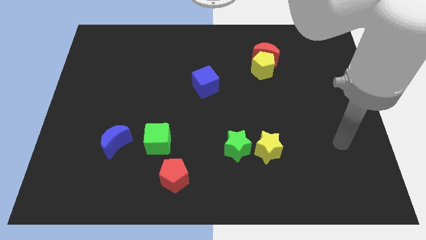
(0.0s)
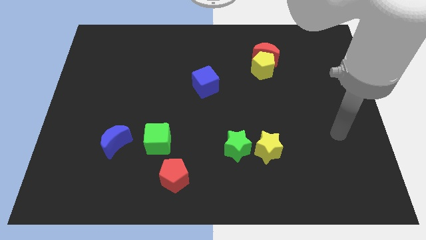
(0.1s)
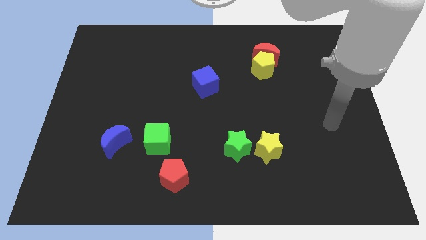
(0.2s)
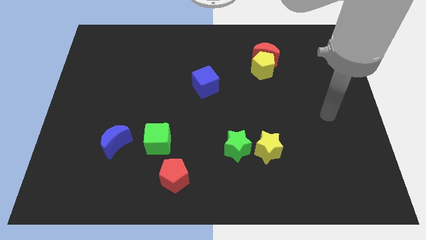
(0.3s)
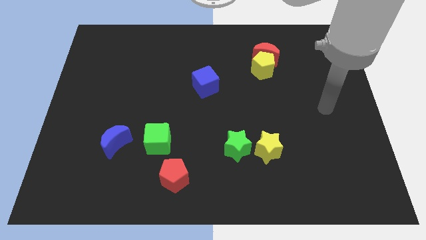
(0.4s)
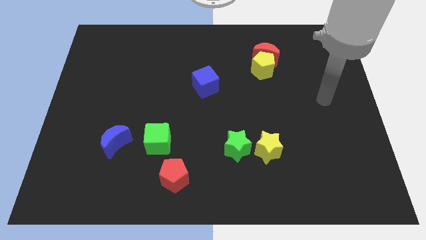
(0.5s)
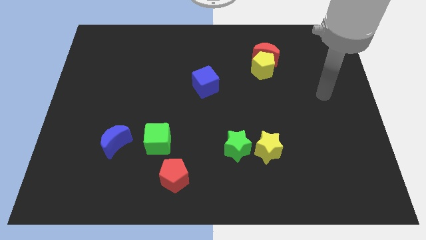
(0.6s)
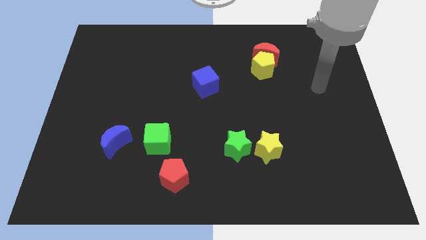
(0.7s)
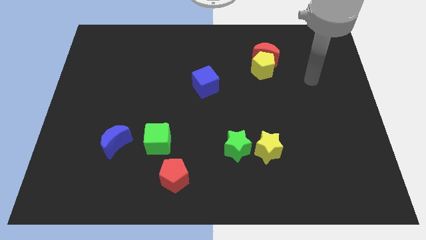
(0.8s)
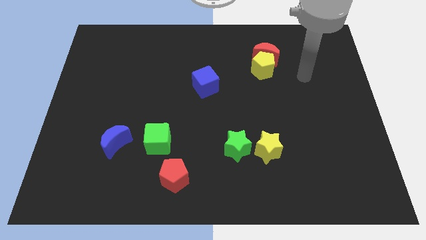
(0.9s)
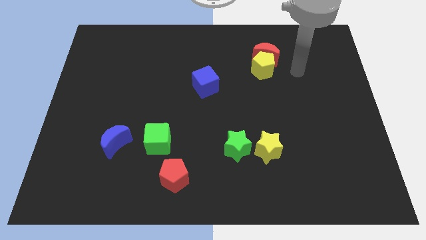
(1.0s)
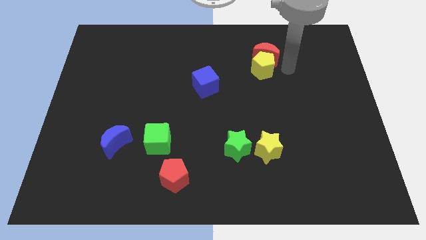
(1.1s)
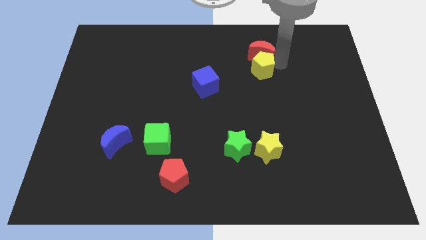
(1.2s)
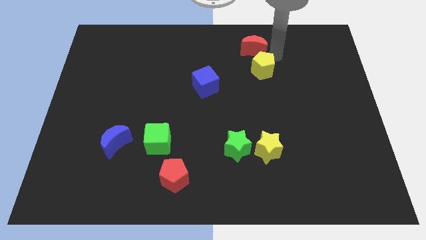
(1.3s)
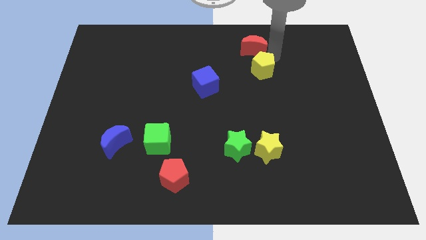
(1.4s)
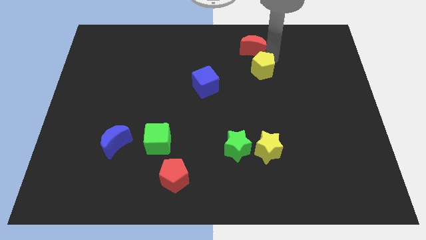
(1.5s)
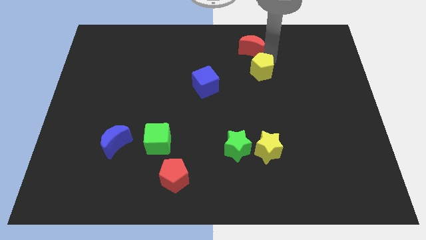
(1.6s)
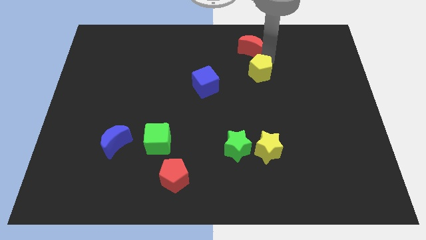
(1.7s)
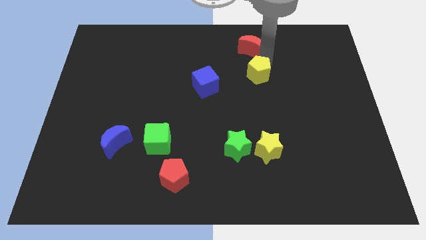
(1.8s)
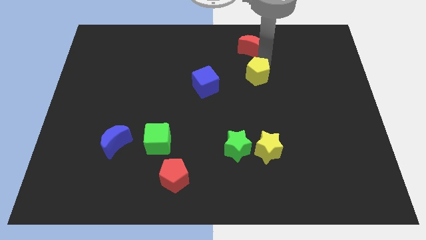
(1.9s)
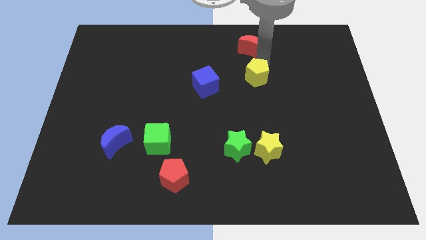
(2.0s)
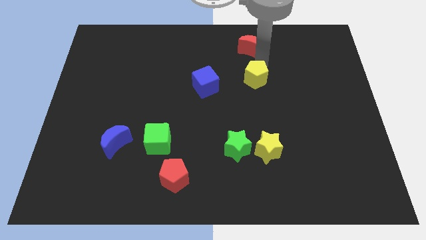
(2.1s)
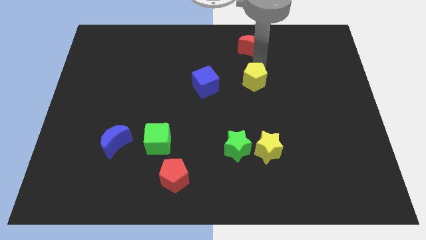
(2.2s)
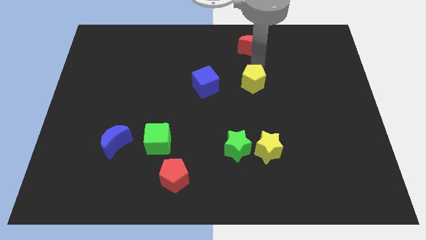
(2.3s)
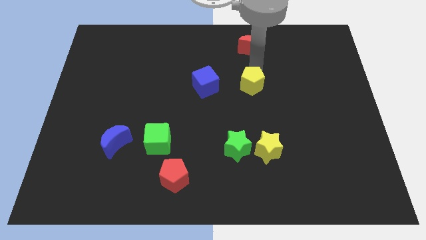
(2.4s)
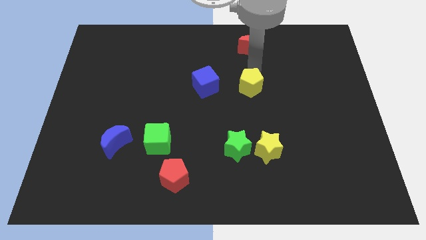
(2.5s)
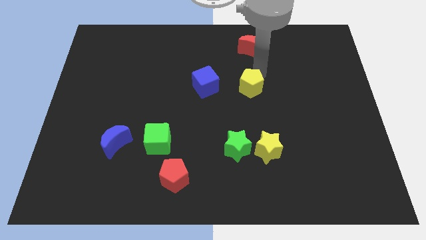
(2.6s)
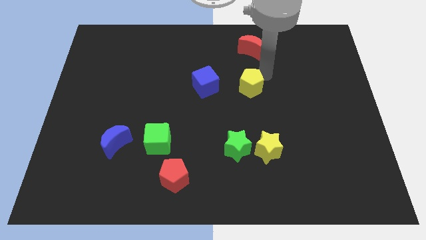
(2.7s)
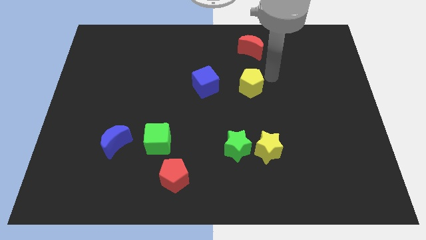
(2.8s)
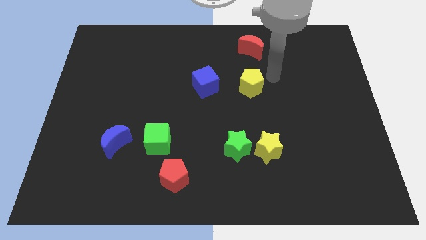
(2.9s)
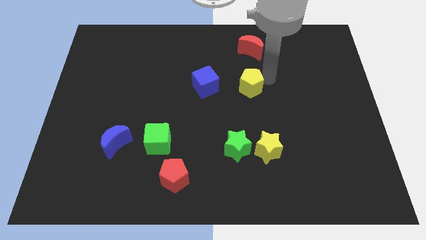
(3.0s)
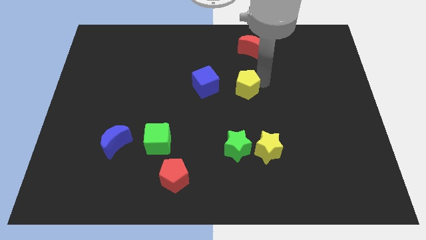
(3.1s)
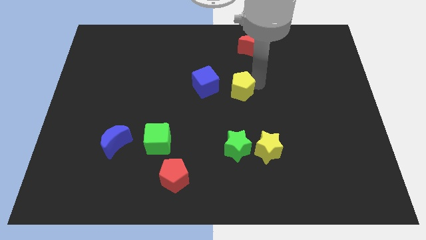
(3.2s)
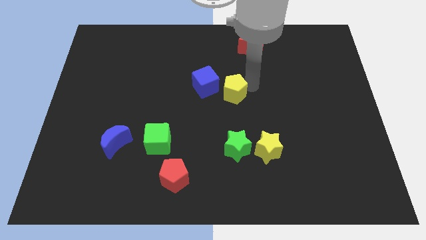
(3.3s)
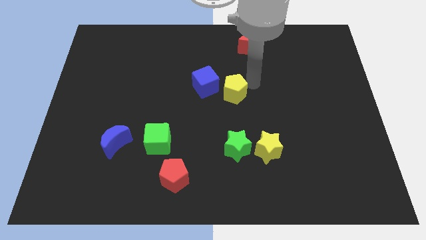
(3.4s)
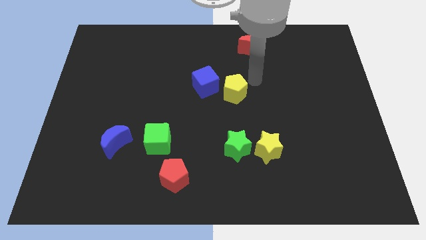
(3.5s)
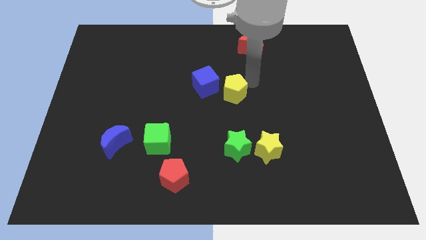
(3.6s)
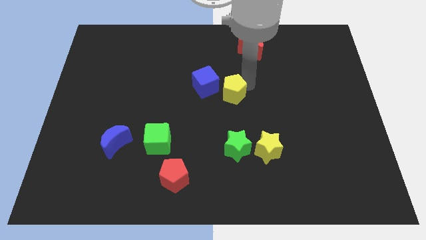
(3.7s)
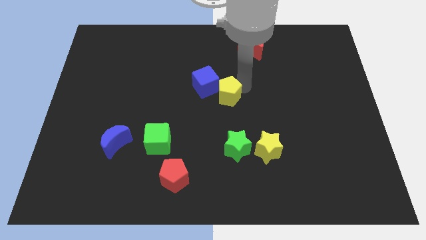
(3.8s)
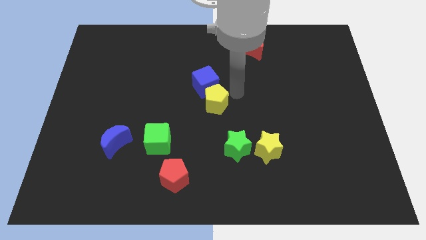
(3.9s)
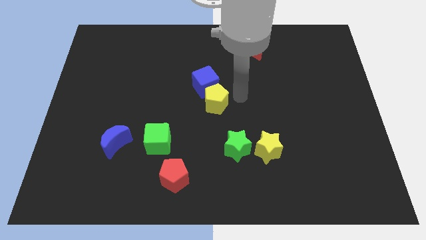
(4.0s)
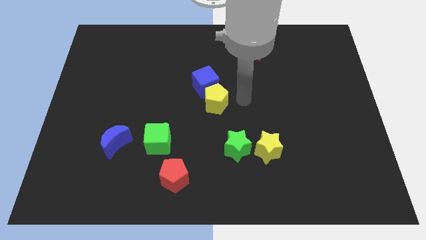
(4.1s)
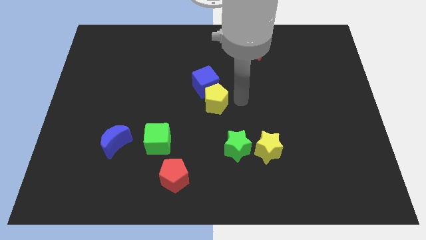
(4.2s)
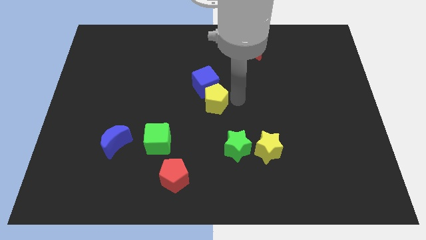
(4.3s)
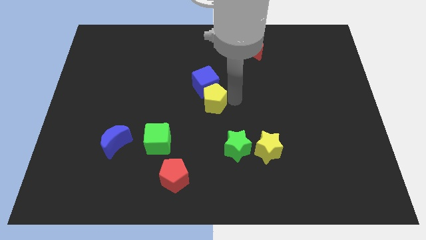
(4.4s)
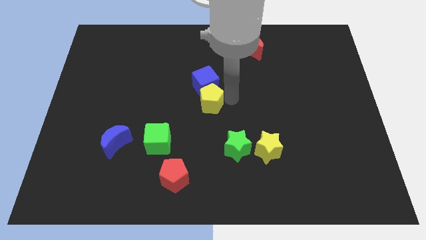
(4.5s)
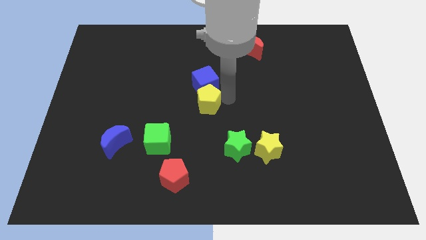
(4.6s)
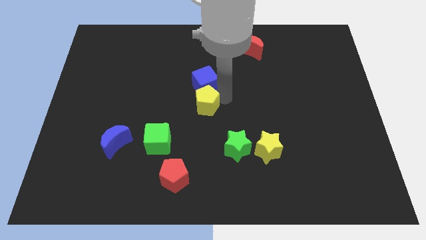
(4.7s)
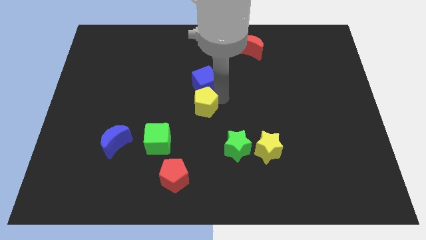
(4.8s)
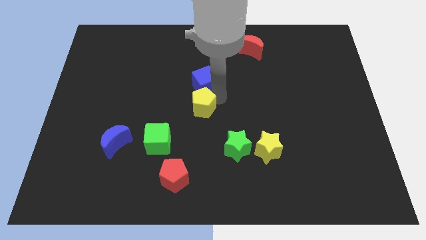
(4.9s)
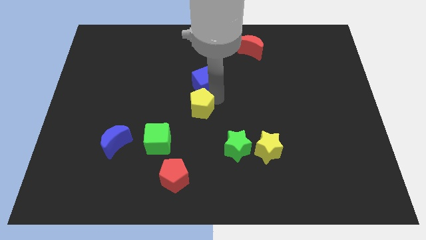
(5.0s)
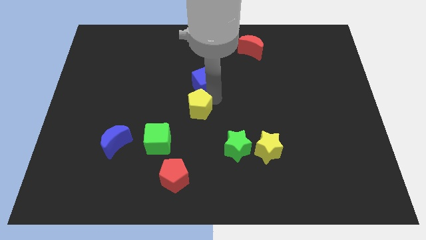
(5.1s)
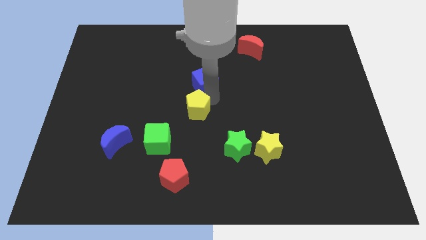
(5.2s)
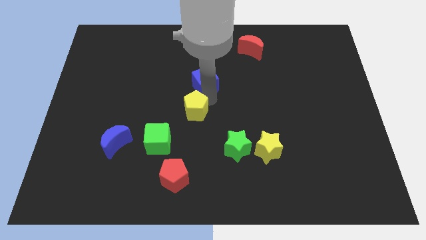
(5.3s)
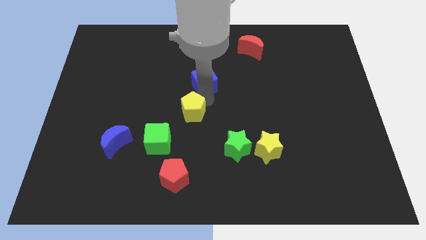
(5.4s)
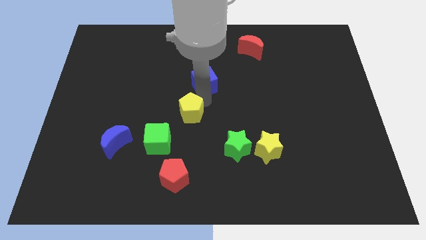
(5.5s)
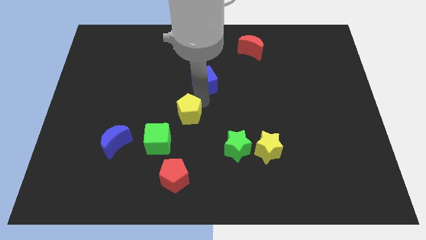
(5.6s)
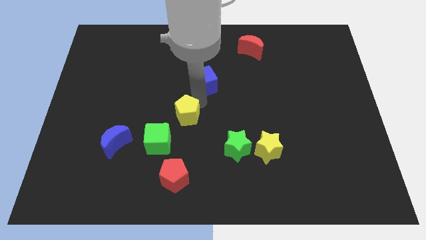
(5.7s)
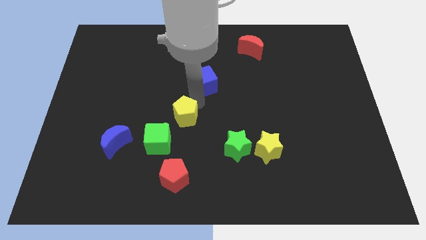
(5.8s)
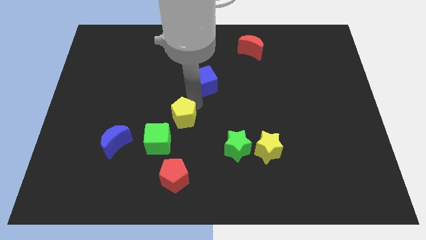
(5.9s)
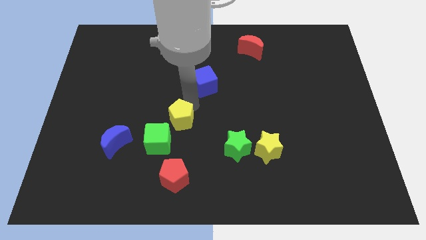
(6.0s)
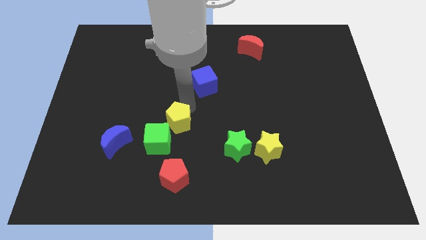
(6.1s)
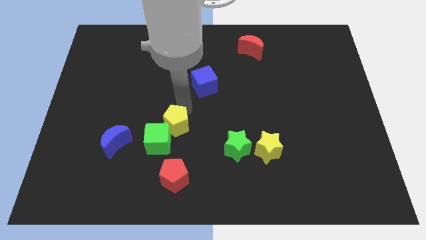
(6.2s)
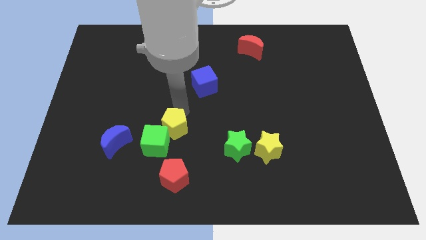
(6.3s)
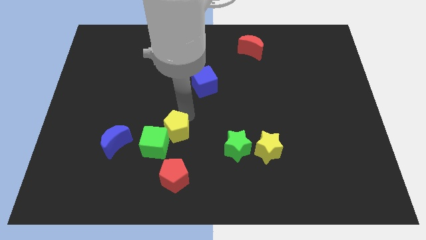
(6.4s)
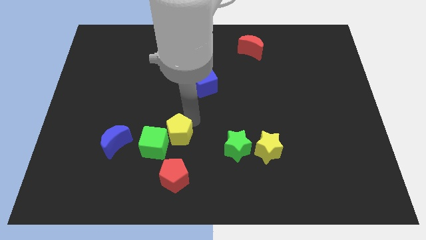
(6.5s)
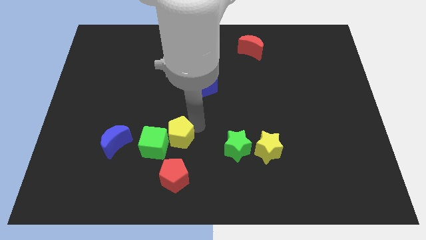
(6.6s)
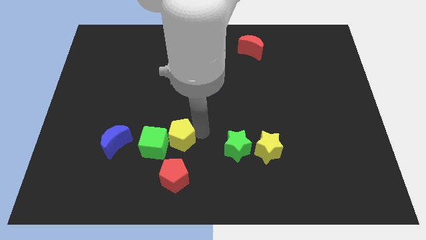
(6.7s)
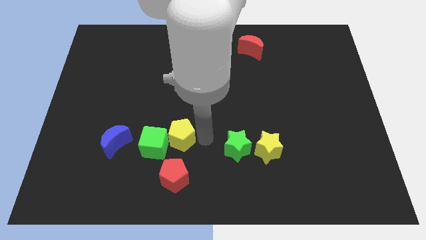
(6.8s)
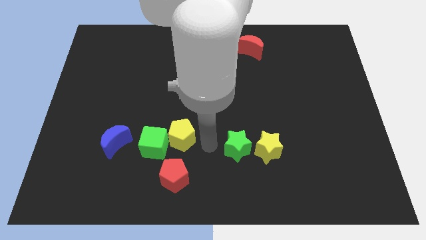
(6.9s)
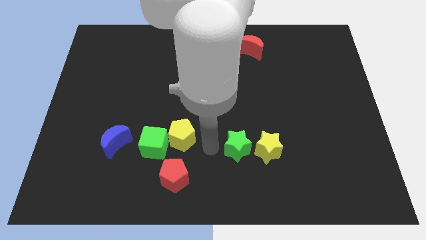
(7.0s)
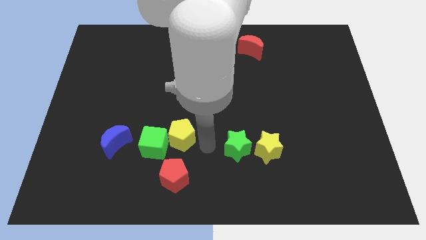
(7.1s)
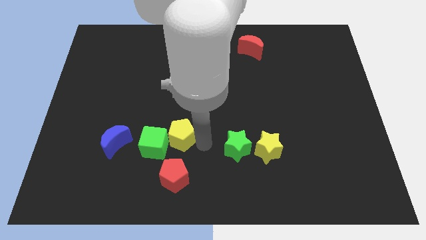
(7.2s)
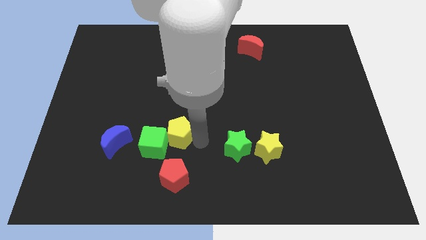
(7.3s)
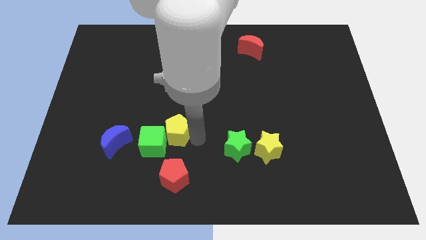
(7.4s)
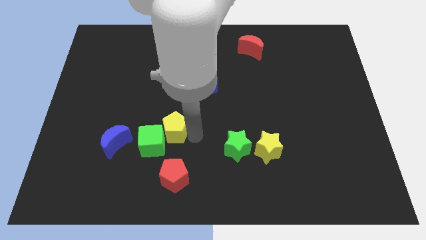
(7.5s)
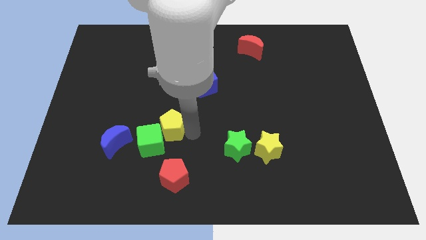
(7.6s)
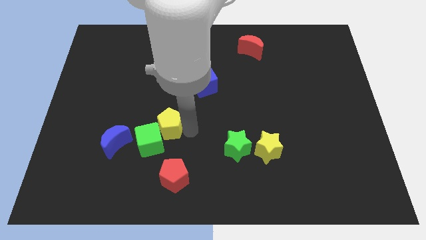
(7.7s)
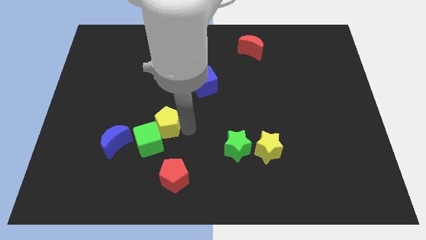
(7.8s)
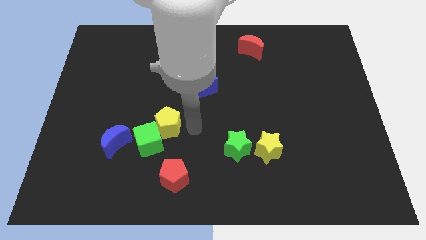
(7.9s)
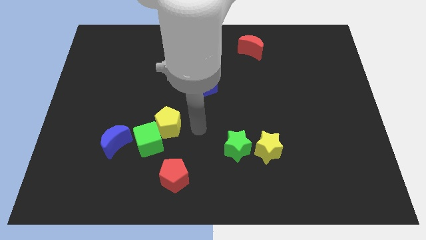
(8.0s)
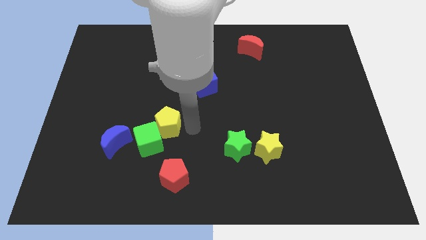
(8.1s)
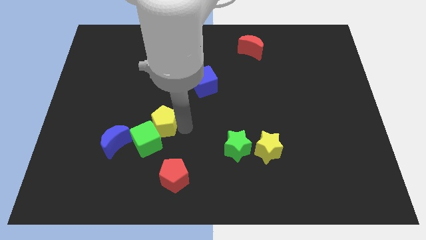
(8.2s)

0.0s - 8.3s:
push the yellow pentagon to the top right of the blue moon
